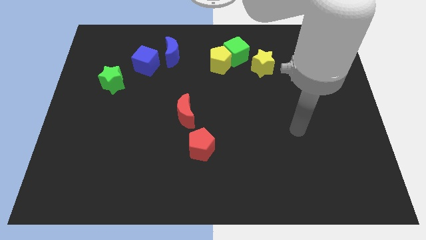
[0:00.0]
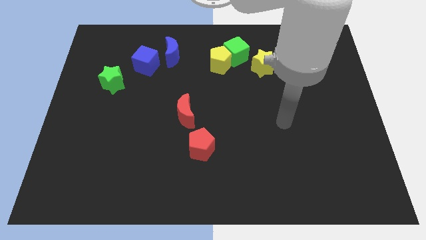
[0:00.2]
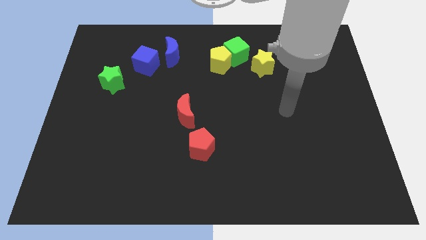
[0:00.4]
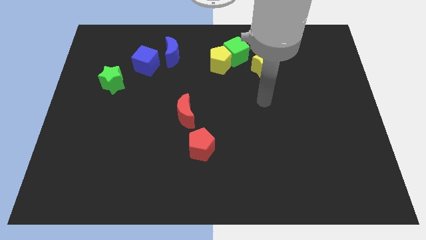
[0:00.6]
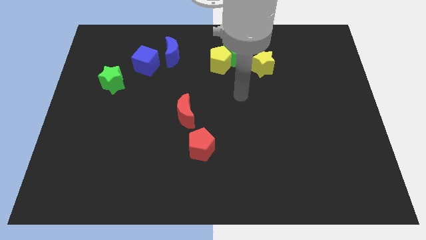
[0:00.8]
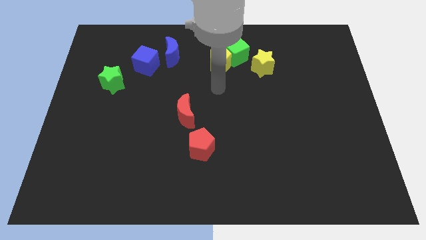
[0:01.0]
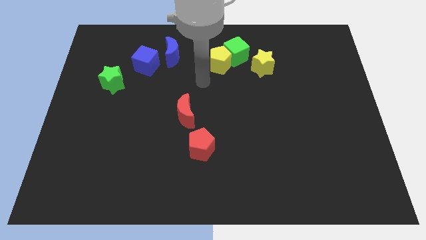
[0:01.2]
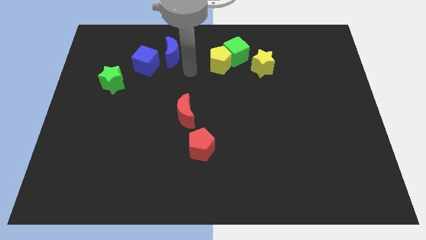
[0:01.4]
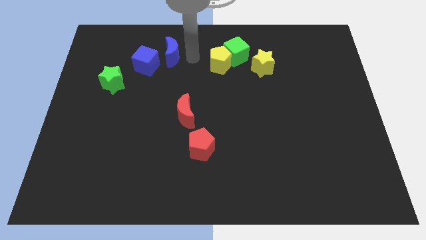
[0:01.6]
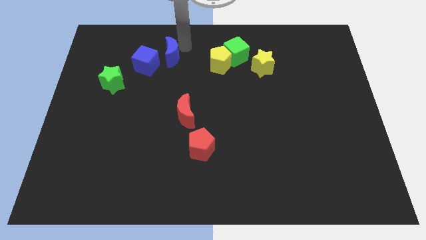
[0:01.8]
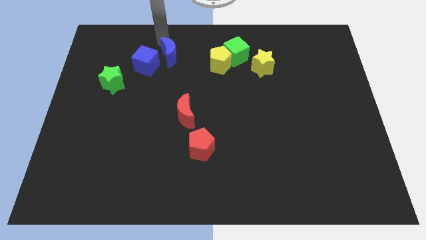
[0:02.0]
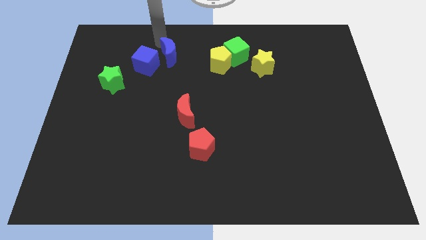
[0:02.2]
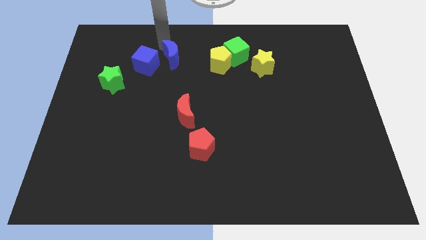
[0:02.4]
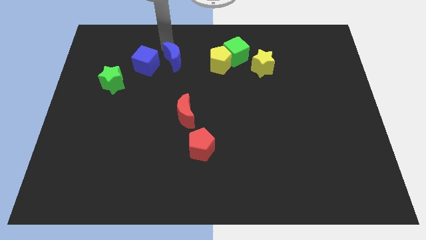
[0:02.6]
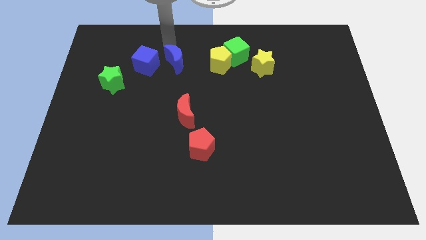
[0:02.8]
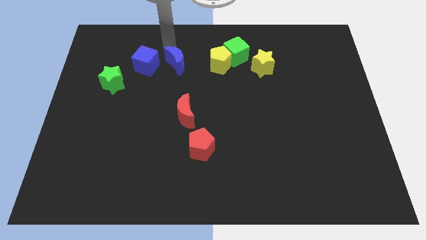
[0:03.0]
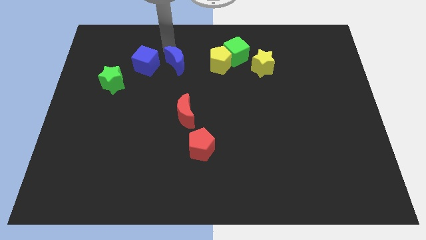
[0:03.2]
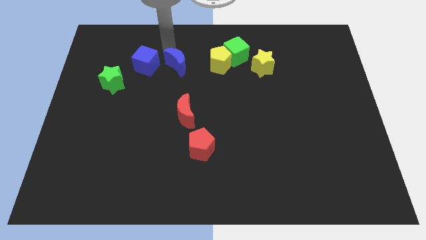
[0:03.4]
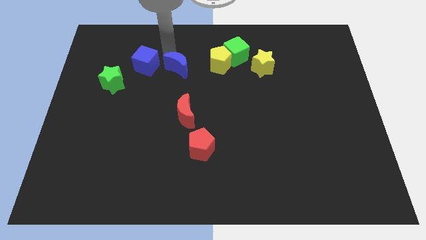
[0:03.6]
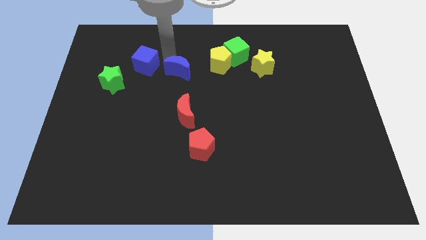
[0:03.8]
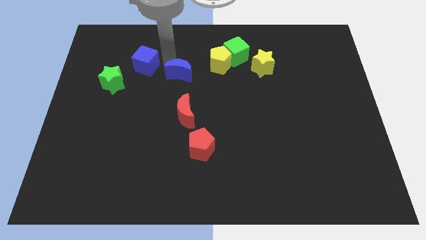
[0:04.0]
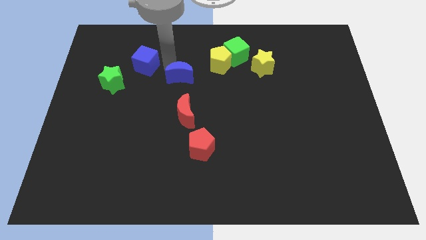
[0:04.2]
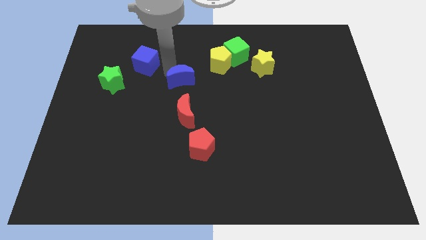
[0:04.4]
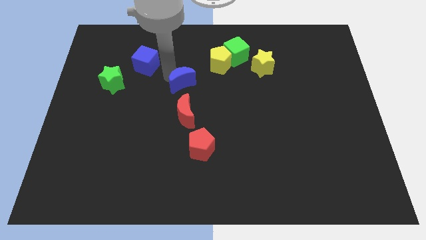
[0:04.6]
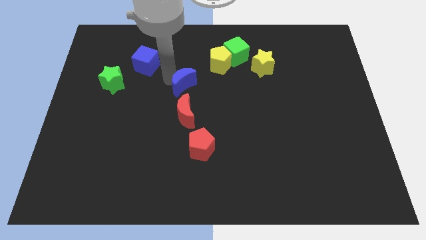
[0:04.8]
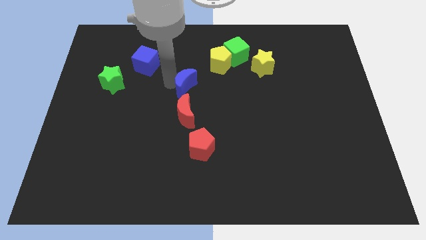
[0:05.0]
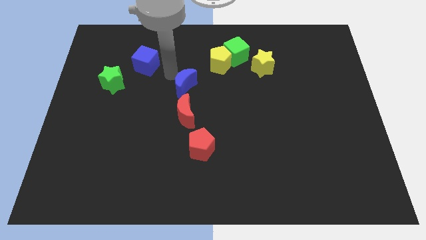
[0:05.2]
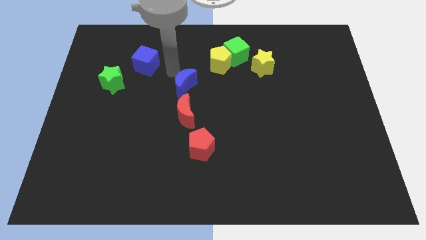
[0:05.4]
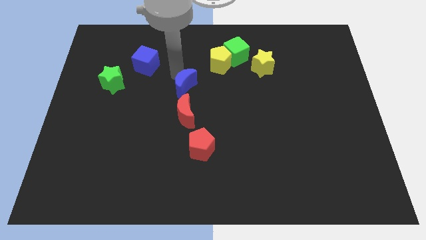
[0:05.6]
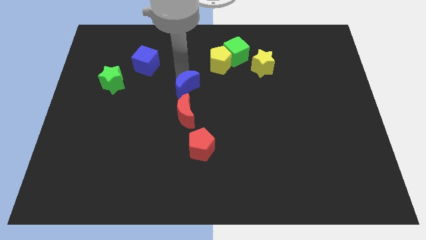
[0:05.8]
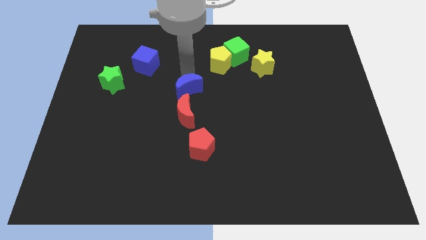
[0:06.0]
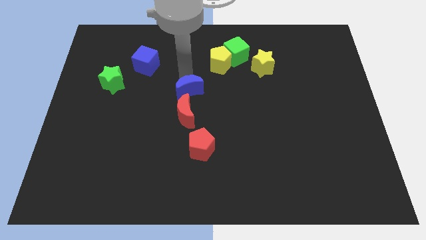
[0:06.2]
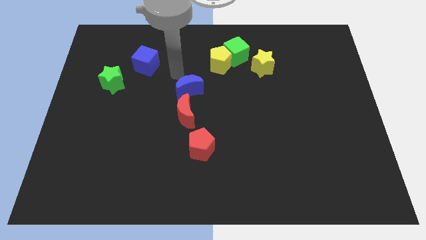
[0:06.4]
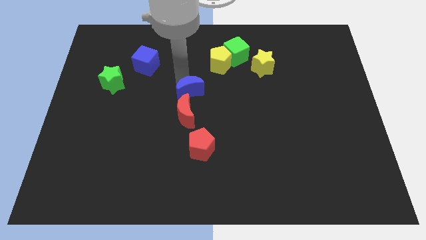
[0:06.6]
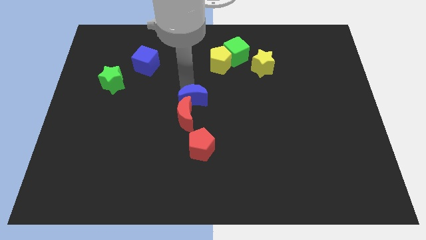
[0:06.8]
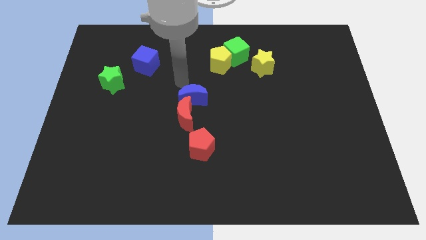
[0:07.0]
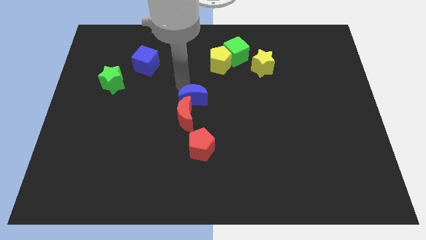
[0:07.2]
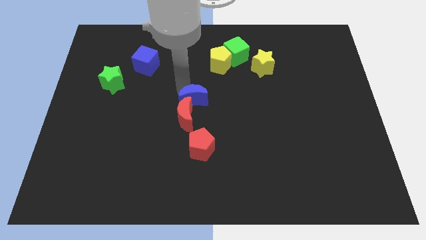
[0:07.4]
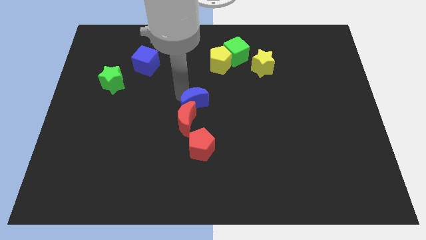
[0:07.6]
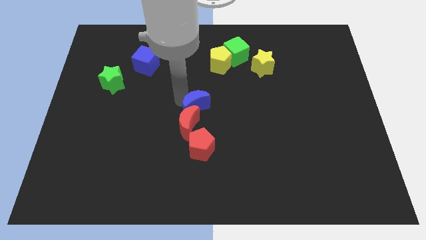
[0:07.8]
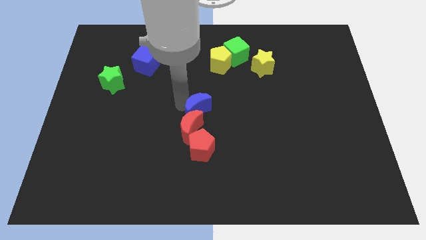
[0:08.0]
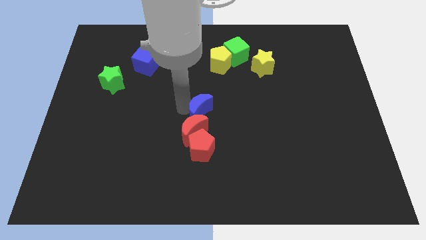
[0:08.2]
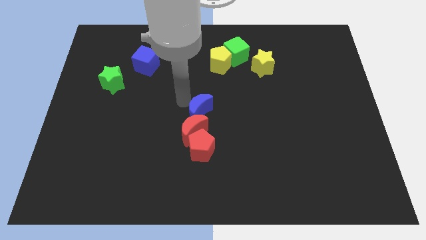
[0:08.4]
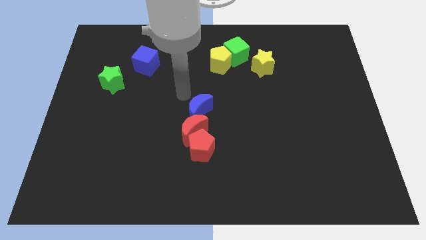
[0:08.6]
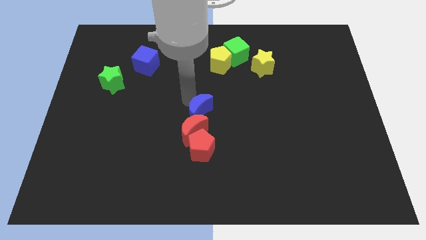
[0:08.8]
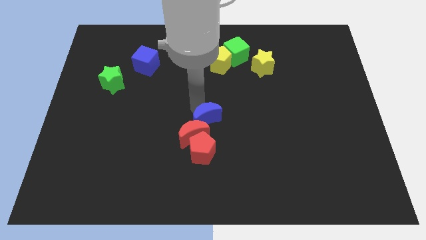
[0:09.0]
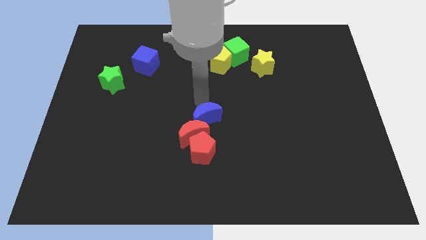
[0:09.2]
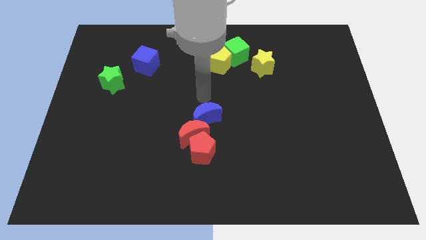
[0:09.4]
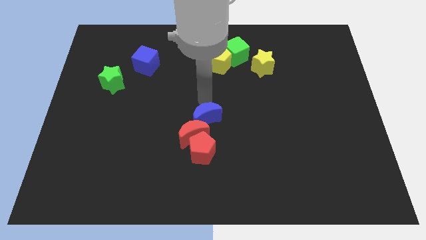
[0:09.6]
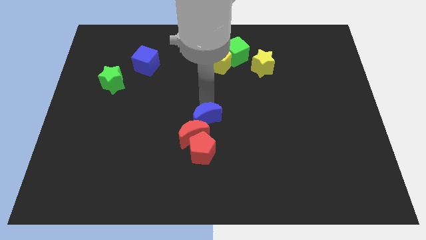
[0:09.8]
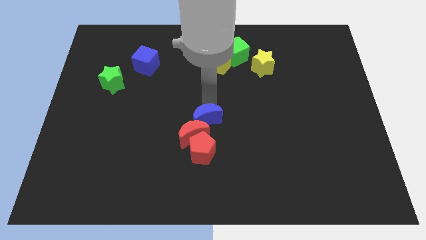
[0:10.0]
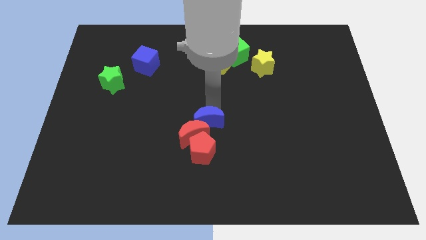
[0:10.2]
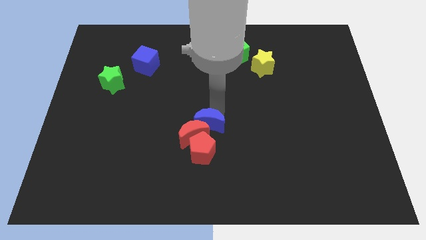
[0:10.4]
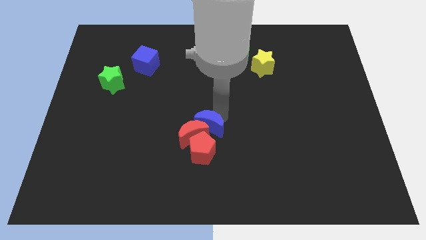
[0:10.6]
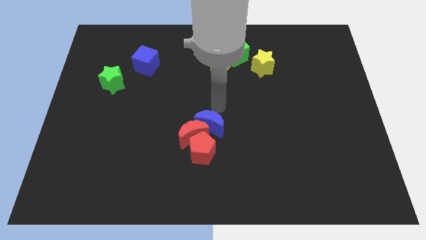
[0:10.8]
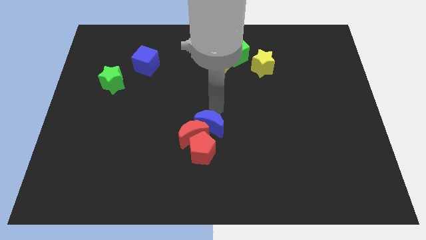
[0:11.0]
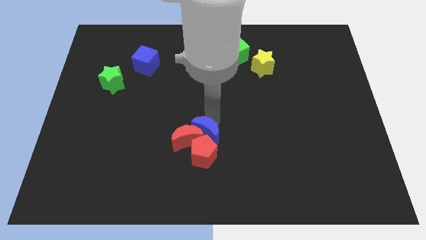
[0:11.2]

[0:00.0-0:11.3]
push the blue moon towards the red pentagon

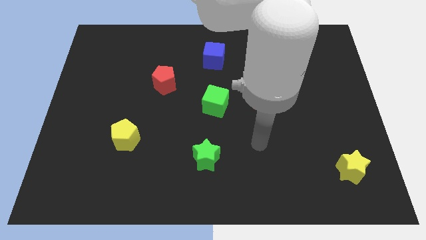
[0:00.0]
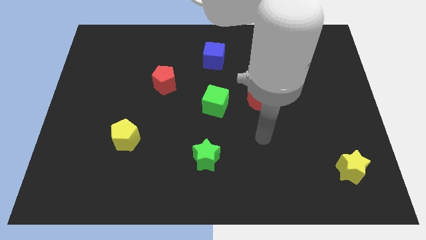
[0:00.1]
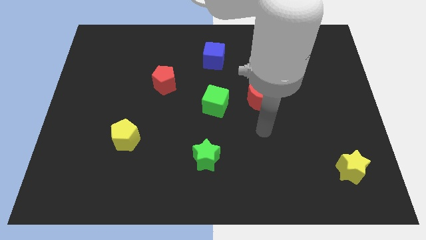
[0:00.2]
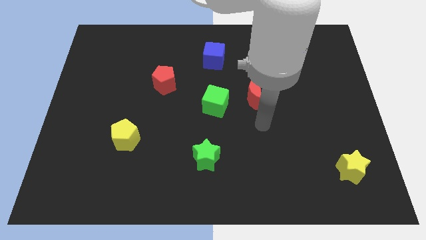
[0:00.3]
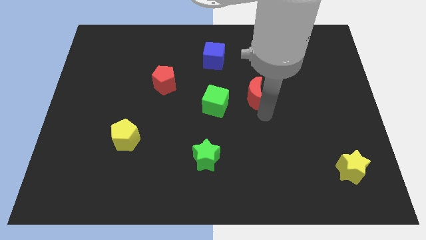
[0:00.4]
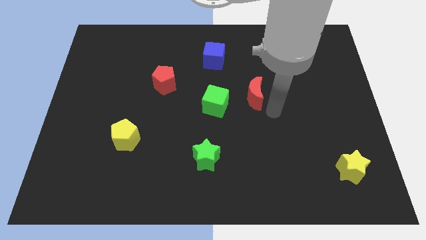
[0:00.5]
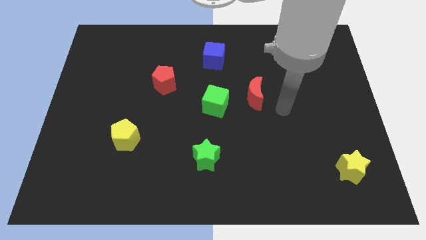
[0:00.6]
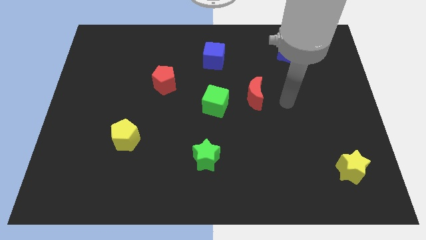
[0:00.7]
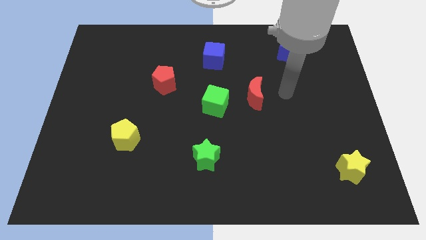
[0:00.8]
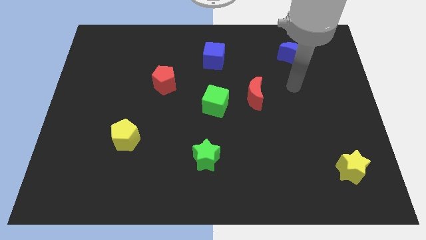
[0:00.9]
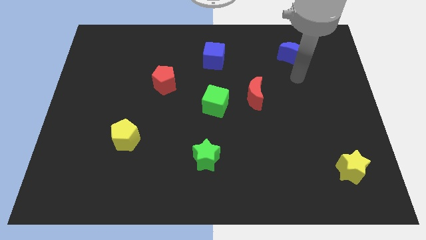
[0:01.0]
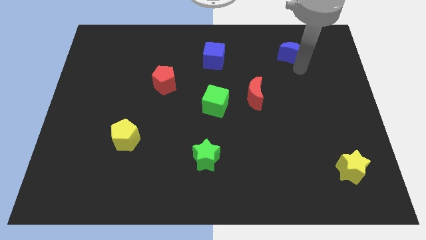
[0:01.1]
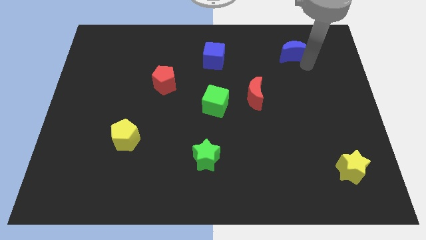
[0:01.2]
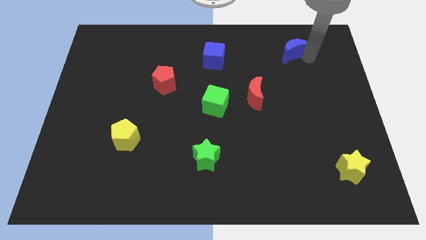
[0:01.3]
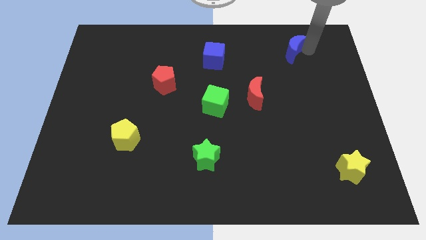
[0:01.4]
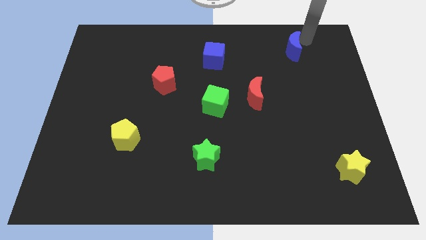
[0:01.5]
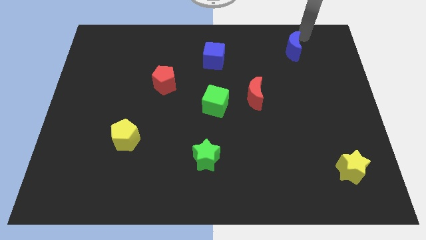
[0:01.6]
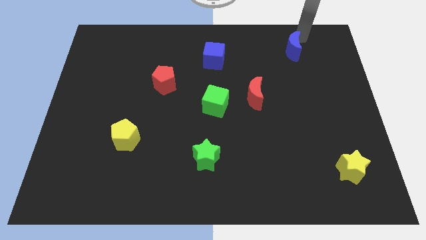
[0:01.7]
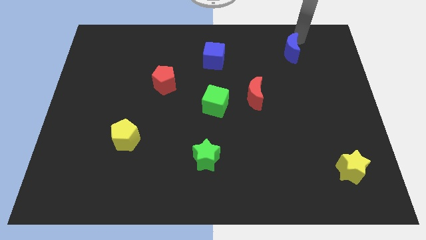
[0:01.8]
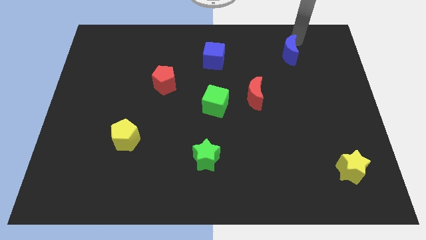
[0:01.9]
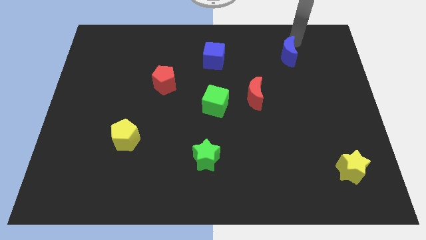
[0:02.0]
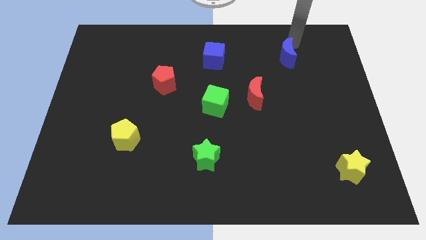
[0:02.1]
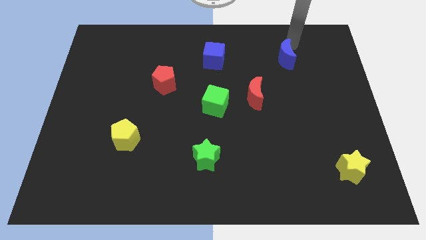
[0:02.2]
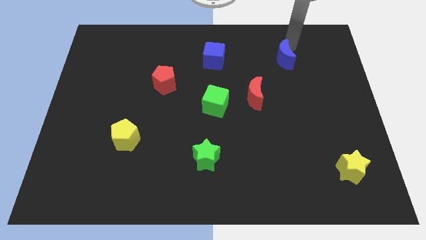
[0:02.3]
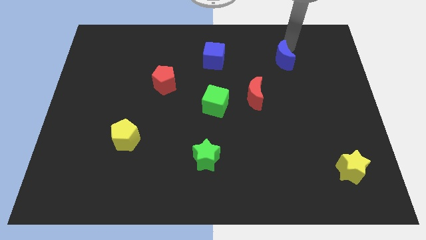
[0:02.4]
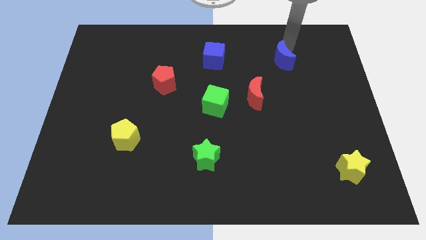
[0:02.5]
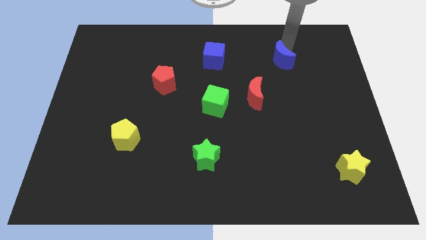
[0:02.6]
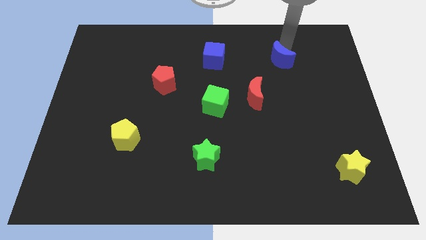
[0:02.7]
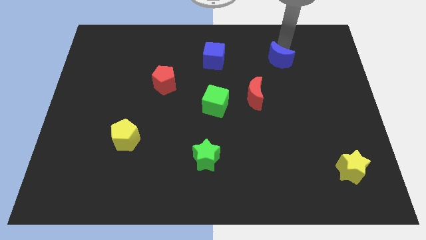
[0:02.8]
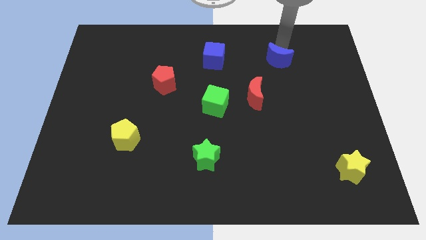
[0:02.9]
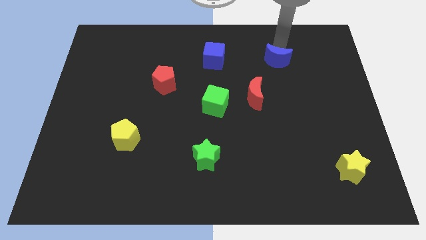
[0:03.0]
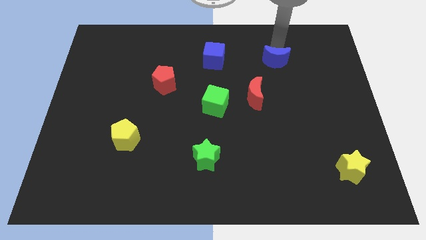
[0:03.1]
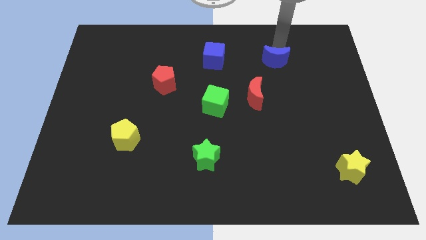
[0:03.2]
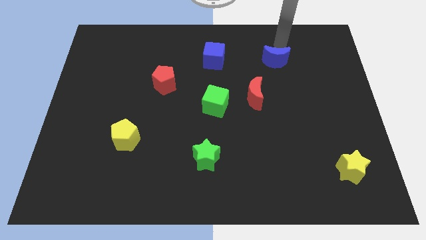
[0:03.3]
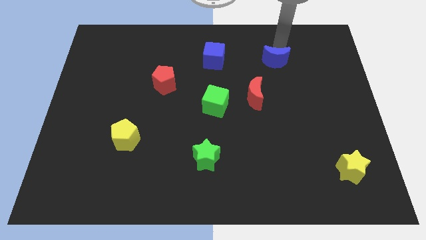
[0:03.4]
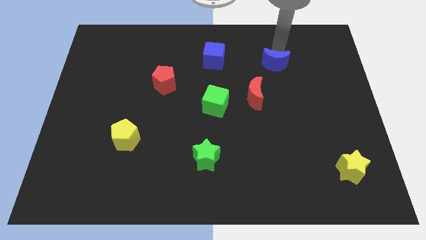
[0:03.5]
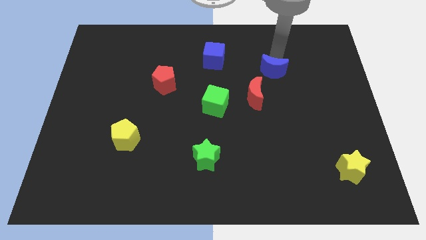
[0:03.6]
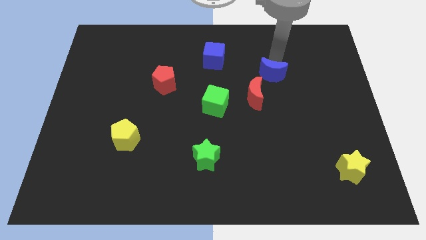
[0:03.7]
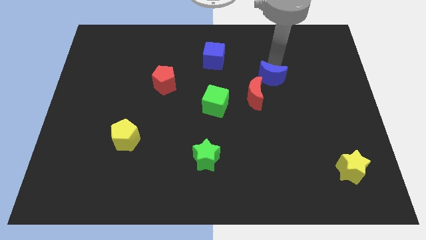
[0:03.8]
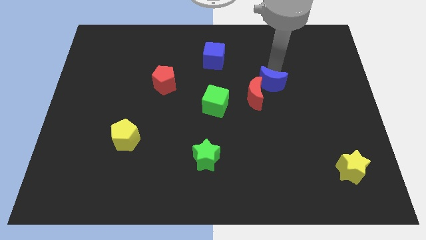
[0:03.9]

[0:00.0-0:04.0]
move the blue moon towards the red moon
